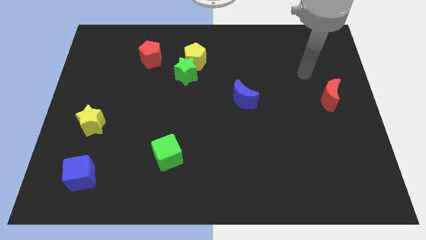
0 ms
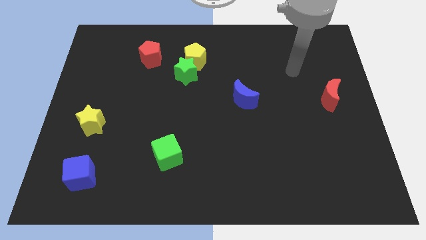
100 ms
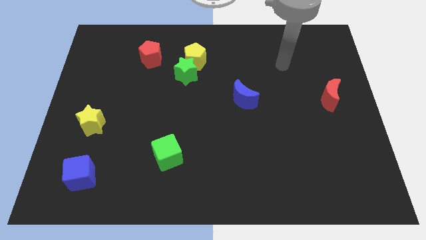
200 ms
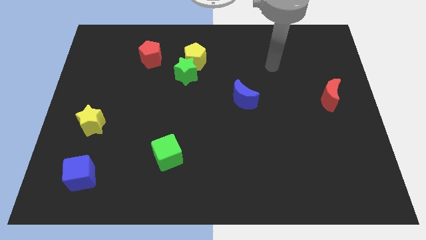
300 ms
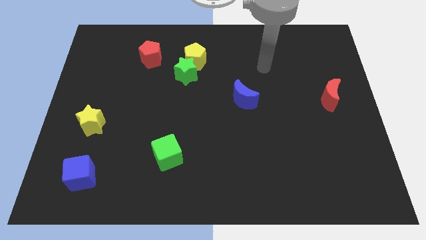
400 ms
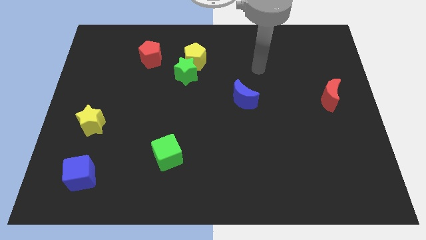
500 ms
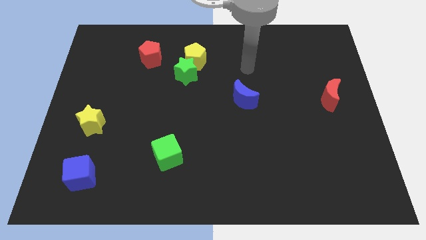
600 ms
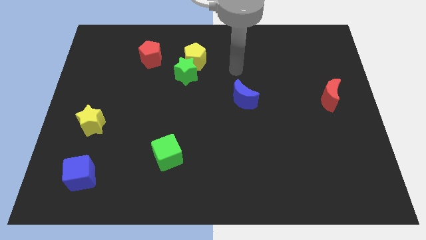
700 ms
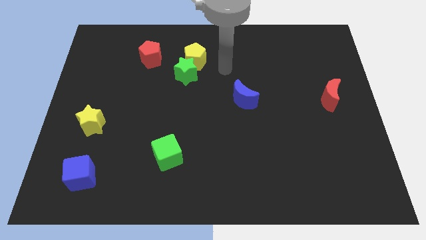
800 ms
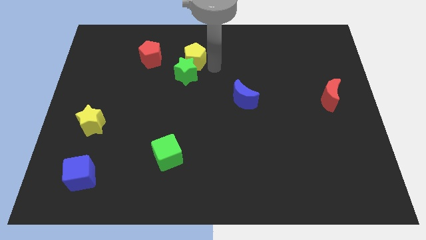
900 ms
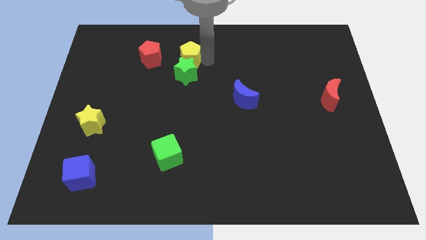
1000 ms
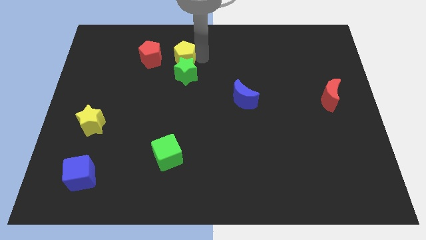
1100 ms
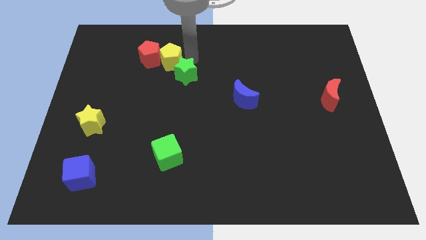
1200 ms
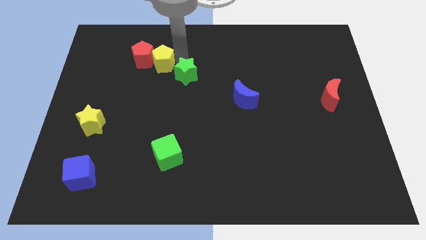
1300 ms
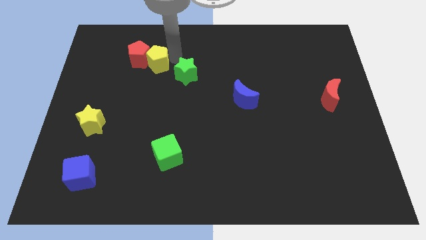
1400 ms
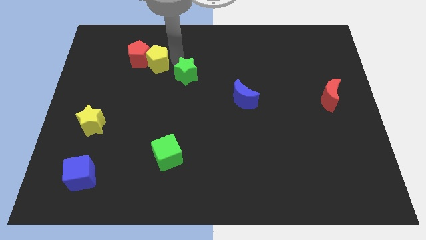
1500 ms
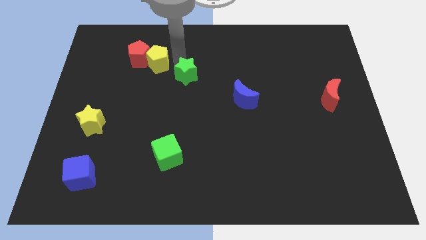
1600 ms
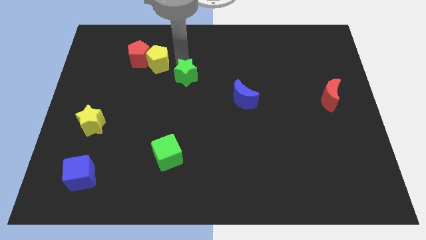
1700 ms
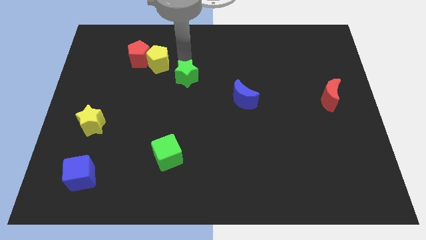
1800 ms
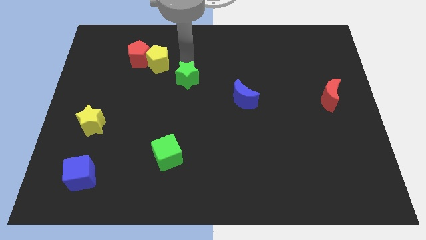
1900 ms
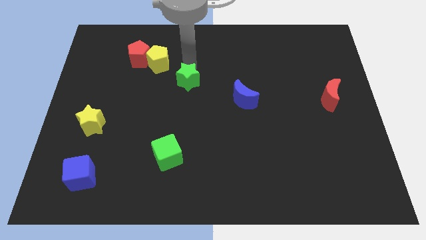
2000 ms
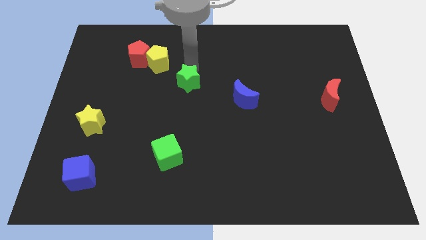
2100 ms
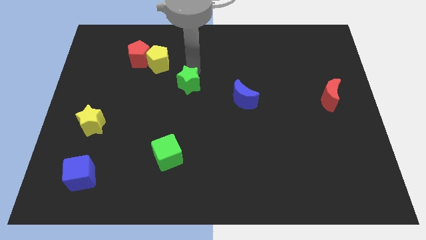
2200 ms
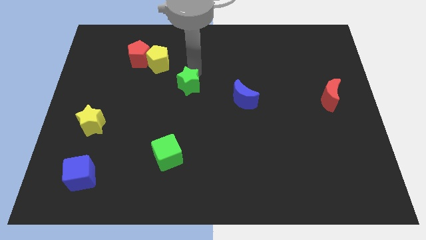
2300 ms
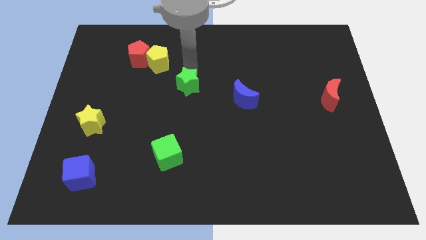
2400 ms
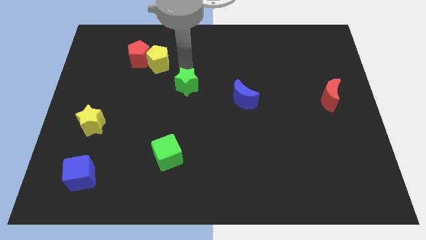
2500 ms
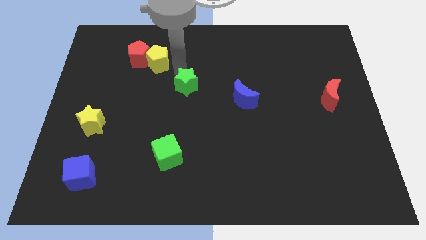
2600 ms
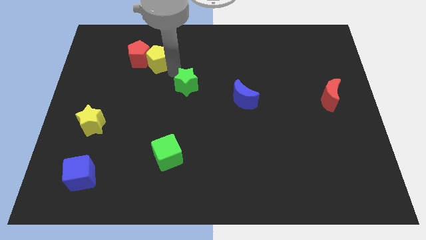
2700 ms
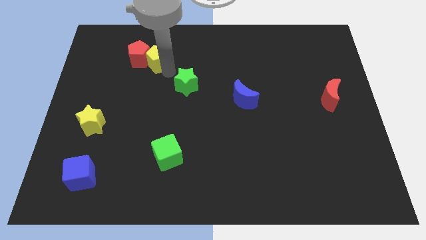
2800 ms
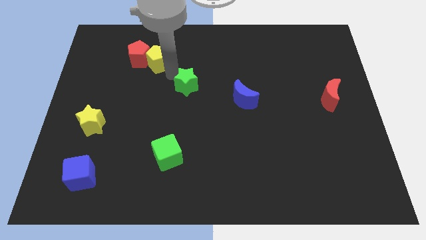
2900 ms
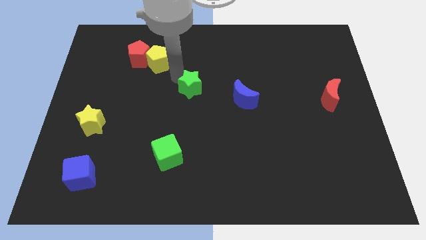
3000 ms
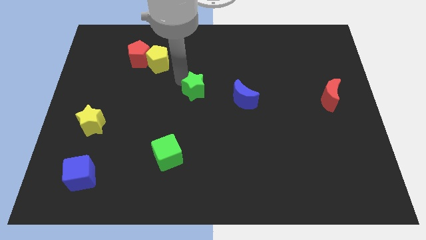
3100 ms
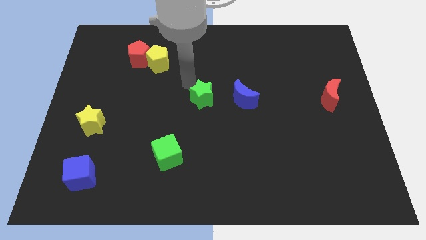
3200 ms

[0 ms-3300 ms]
slightly push the green star down and to the right diagonally

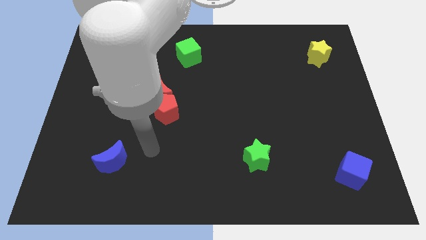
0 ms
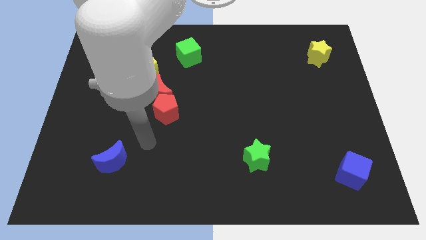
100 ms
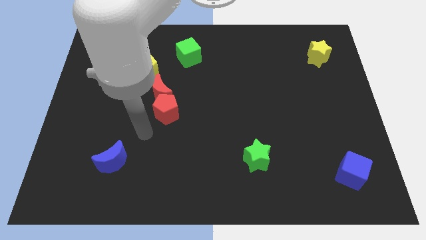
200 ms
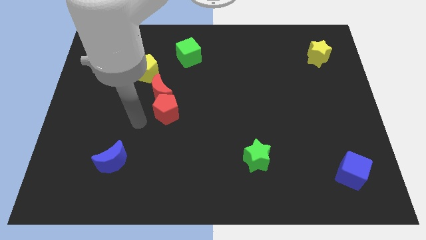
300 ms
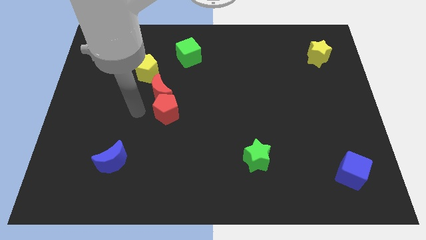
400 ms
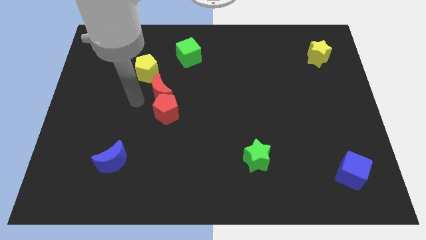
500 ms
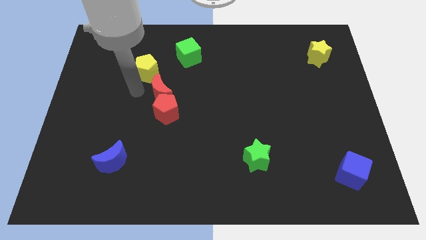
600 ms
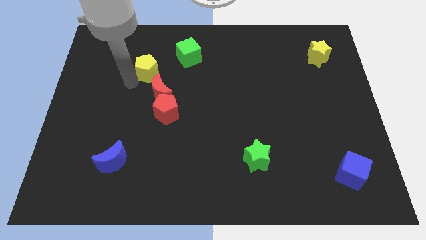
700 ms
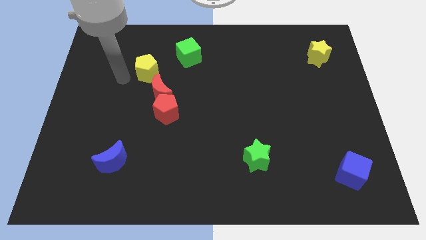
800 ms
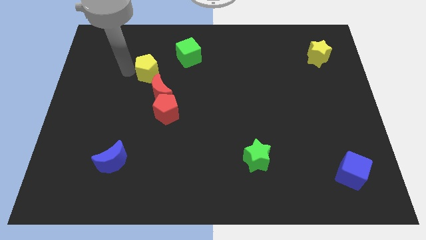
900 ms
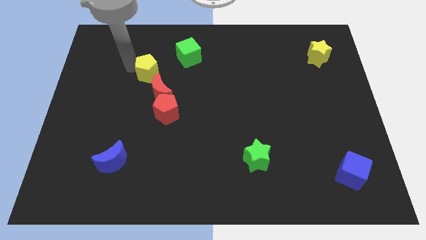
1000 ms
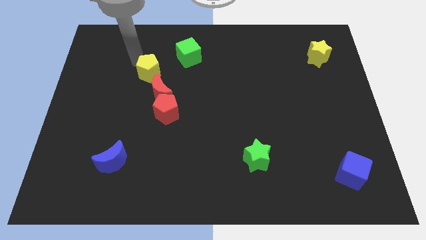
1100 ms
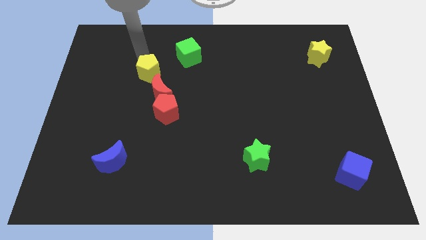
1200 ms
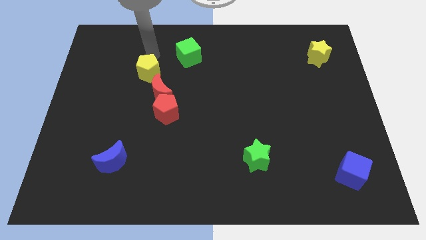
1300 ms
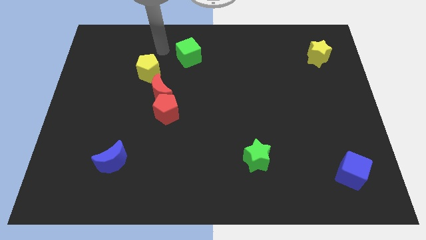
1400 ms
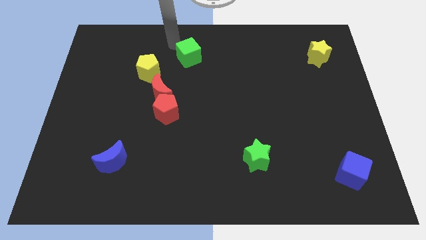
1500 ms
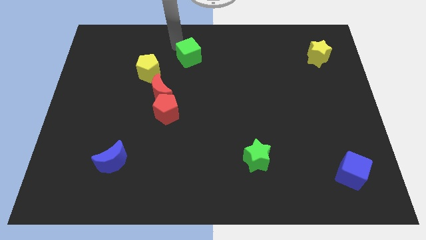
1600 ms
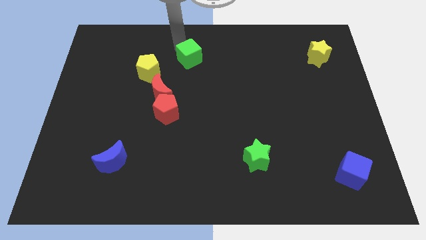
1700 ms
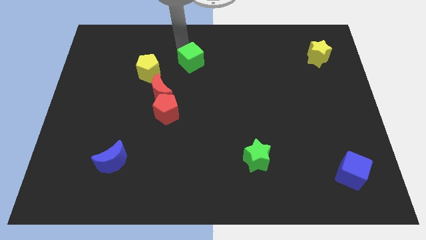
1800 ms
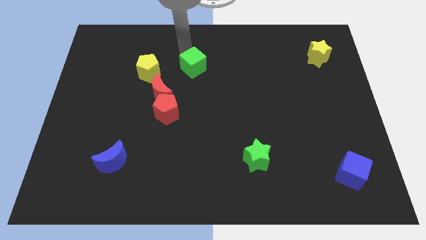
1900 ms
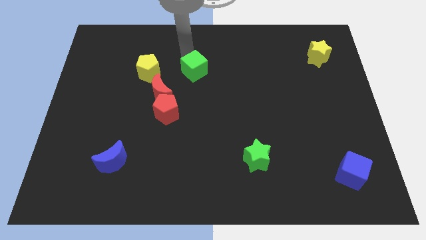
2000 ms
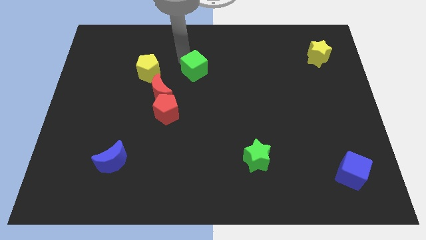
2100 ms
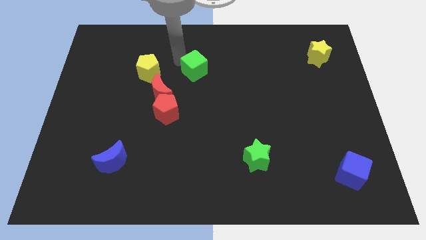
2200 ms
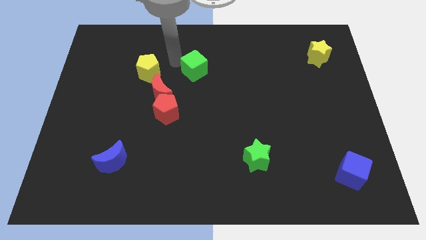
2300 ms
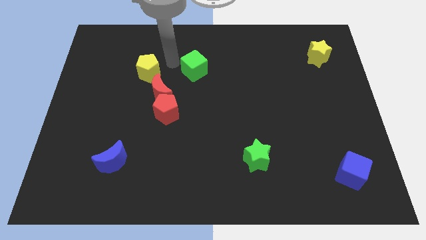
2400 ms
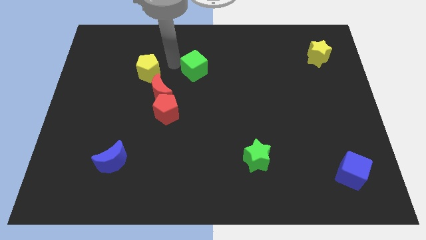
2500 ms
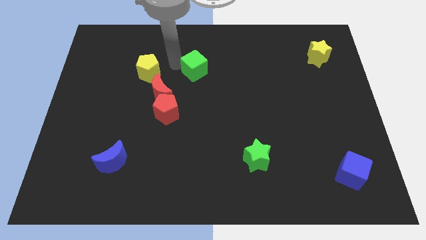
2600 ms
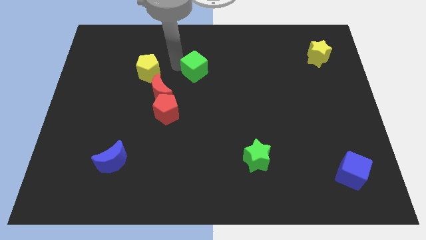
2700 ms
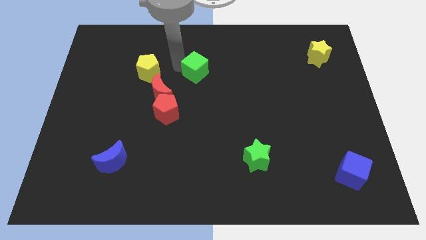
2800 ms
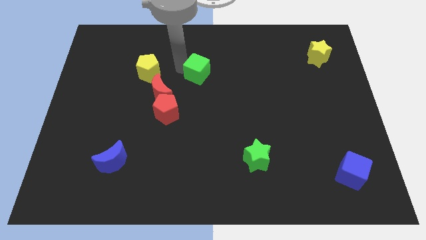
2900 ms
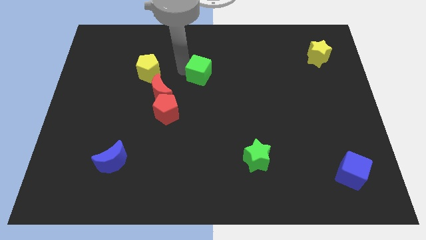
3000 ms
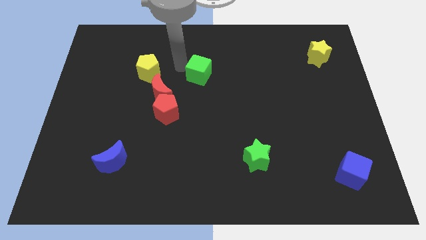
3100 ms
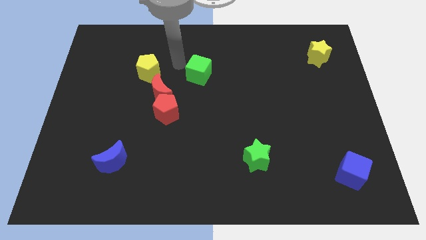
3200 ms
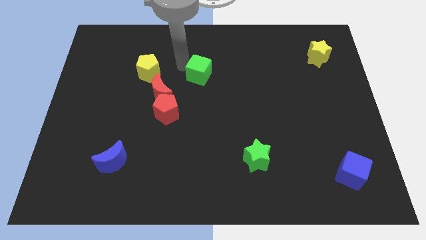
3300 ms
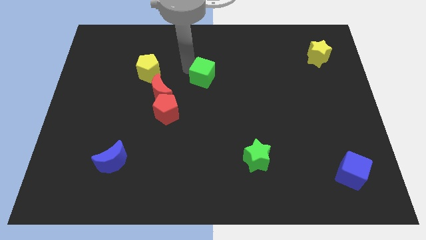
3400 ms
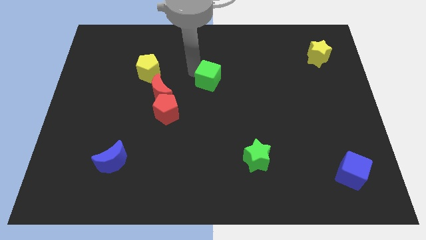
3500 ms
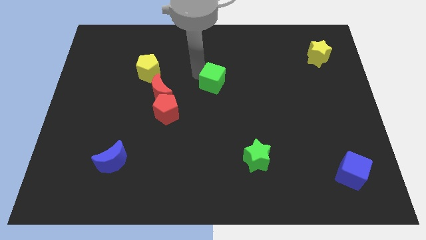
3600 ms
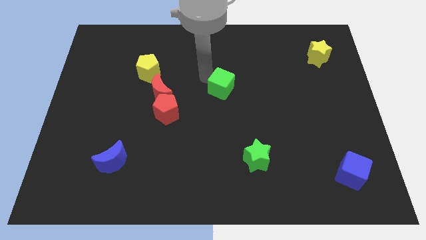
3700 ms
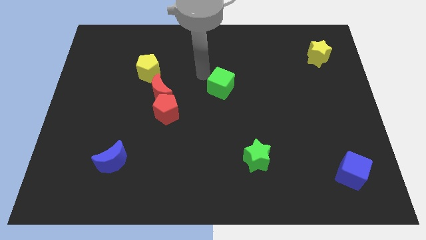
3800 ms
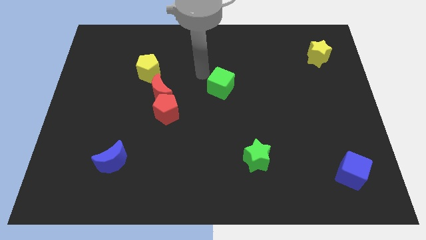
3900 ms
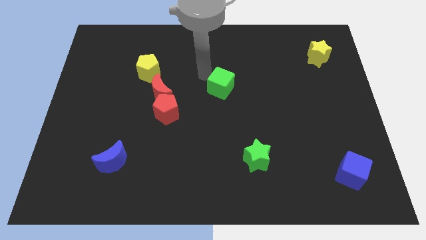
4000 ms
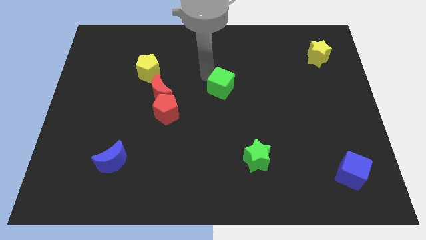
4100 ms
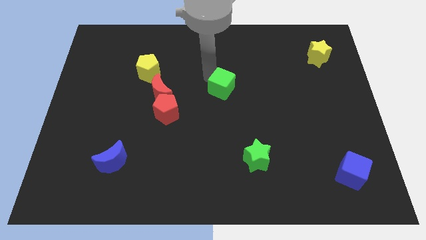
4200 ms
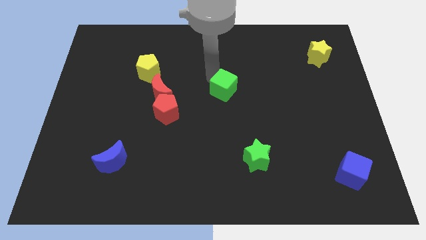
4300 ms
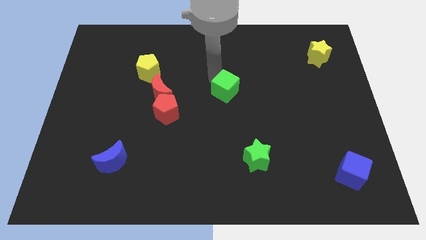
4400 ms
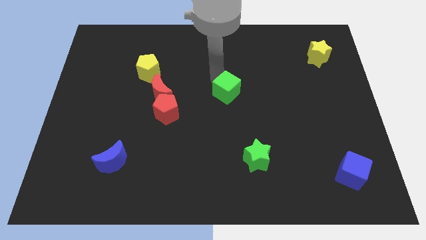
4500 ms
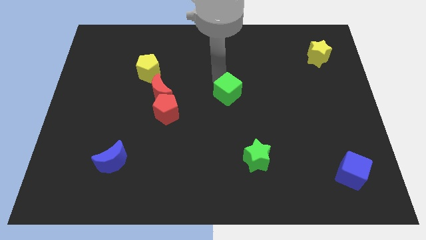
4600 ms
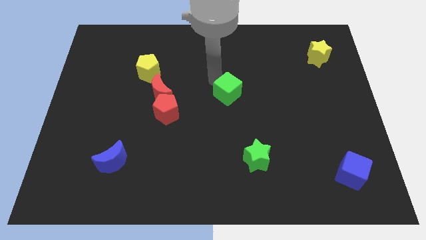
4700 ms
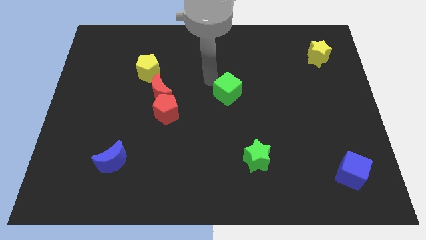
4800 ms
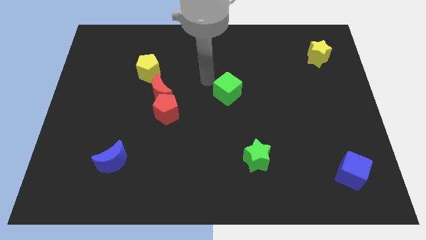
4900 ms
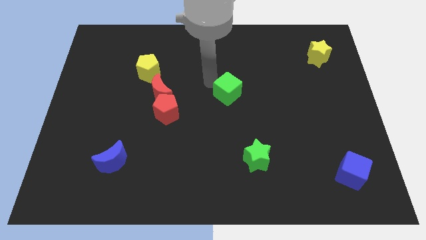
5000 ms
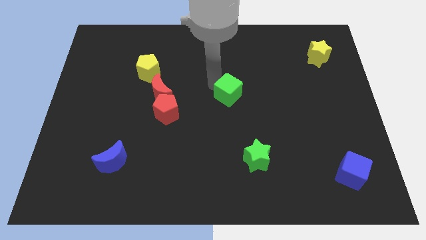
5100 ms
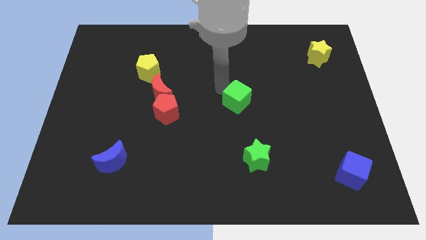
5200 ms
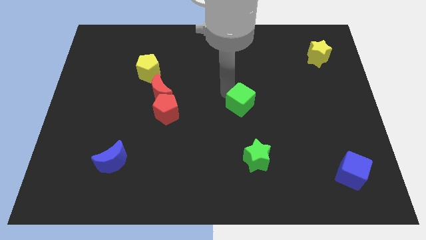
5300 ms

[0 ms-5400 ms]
move the green cube diagonally downwards and to the right
